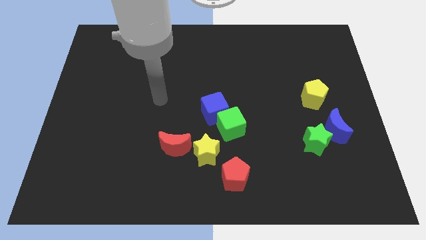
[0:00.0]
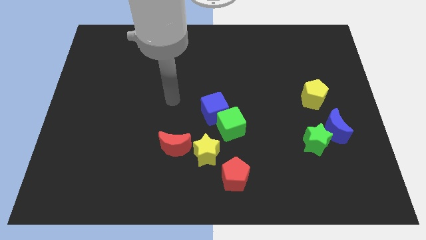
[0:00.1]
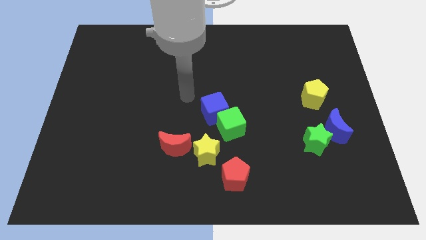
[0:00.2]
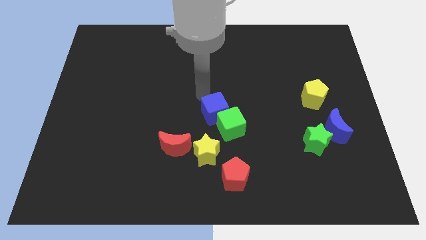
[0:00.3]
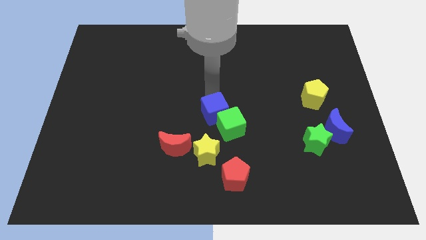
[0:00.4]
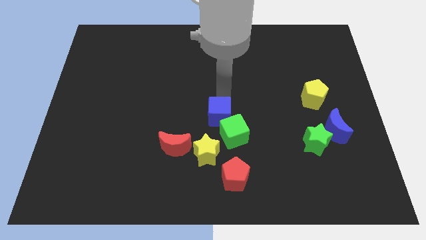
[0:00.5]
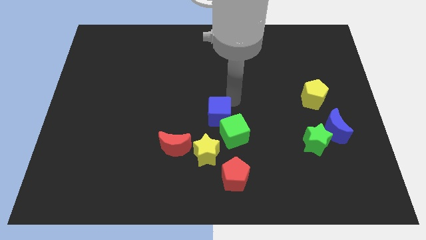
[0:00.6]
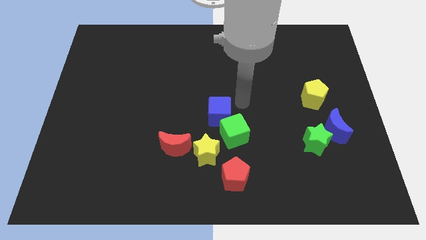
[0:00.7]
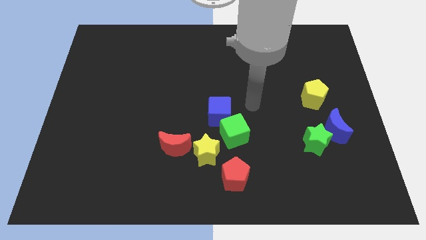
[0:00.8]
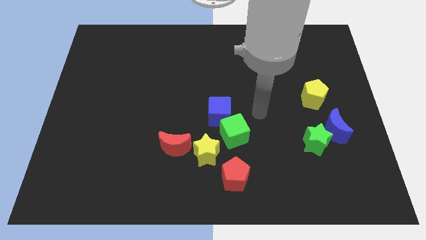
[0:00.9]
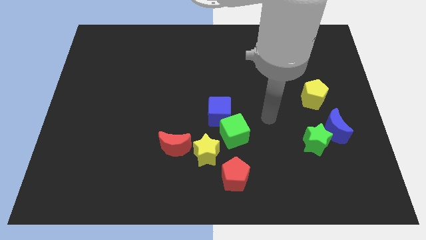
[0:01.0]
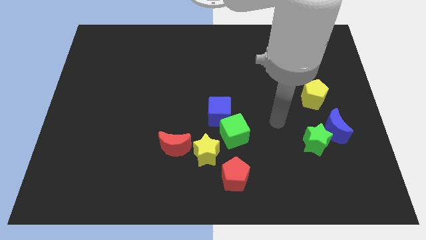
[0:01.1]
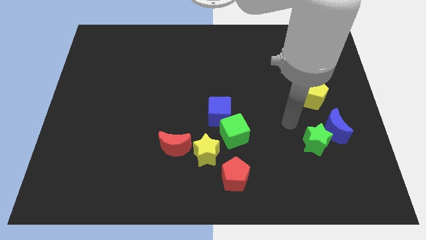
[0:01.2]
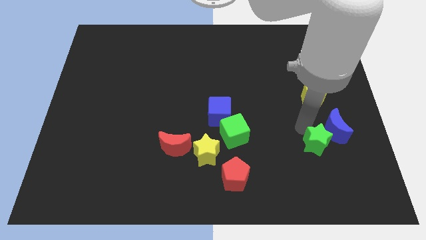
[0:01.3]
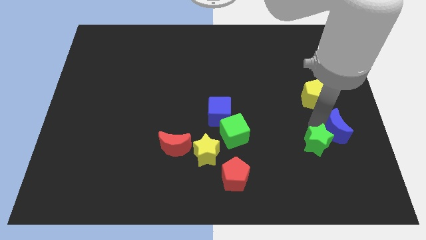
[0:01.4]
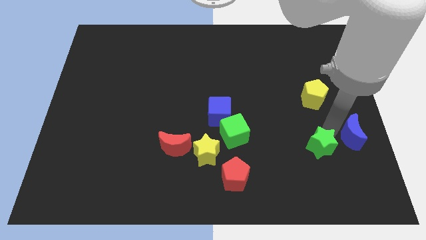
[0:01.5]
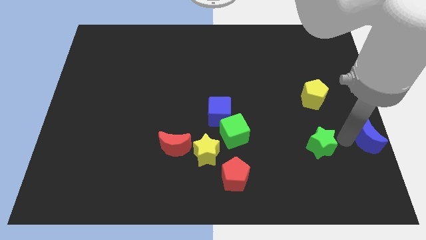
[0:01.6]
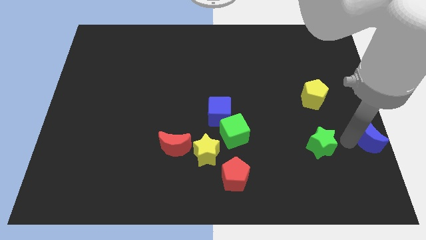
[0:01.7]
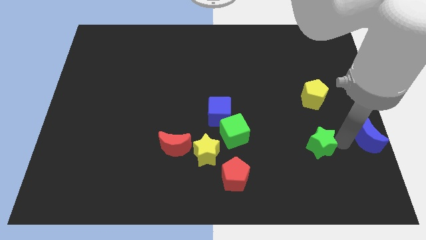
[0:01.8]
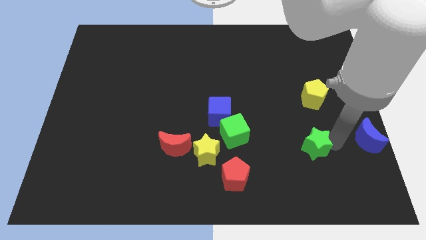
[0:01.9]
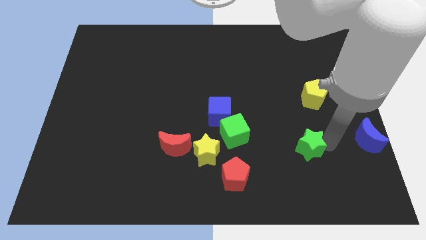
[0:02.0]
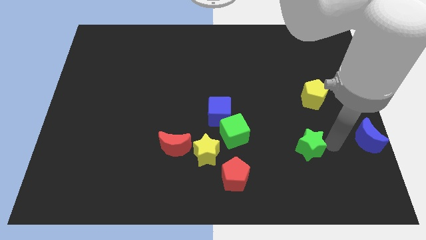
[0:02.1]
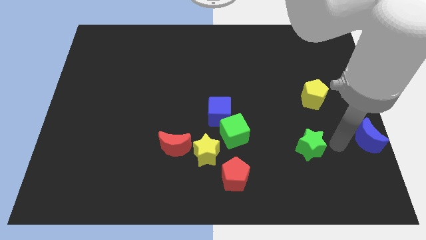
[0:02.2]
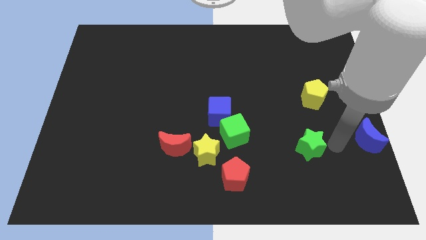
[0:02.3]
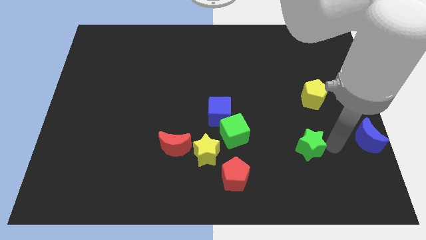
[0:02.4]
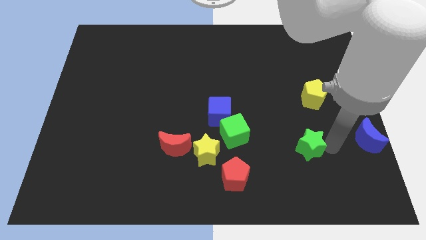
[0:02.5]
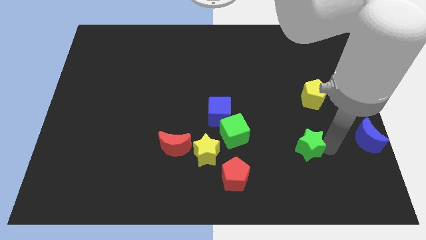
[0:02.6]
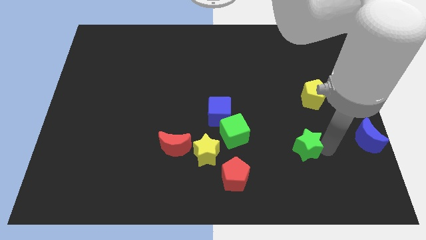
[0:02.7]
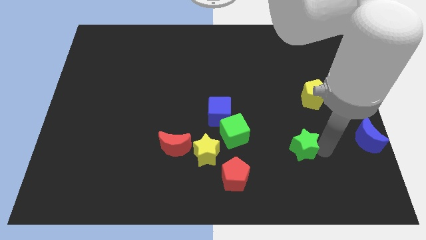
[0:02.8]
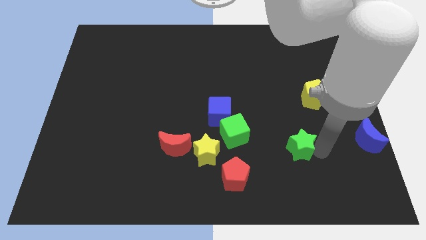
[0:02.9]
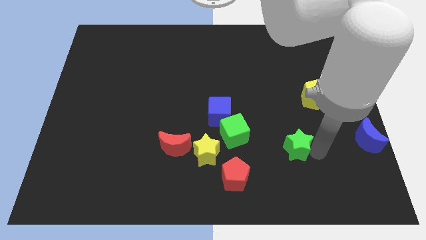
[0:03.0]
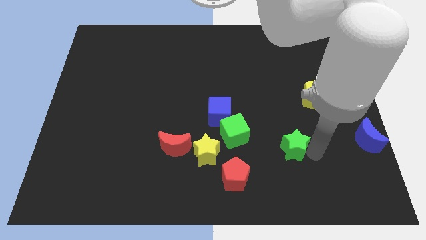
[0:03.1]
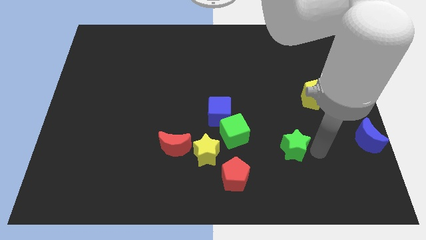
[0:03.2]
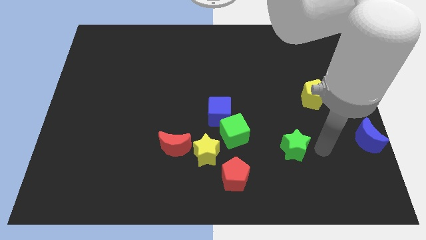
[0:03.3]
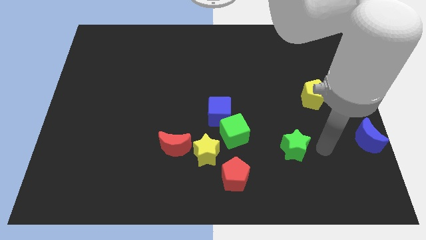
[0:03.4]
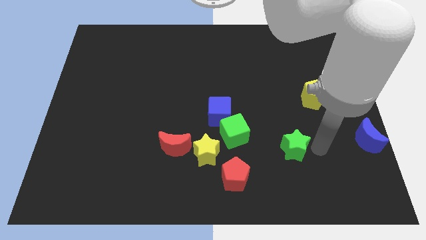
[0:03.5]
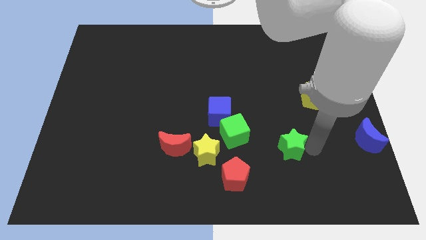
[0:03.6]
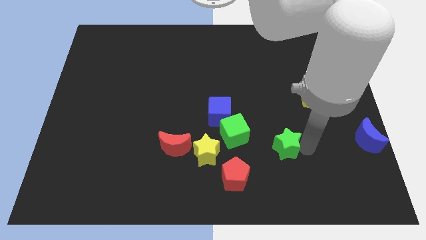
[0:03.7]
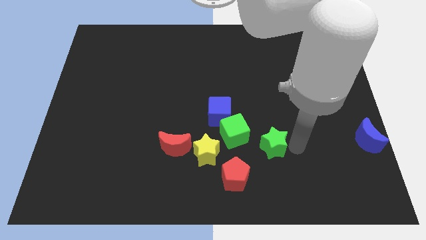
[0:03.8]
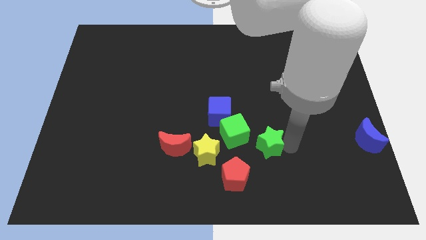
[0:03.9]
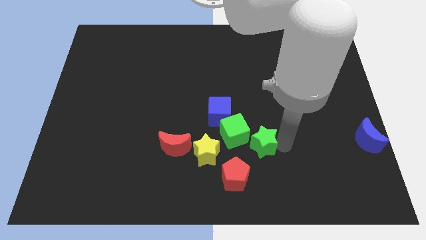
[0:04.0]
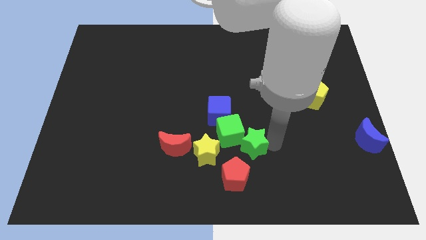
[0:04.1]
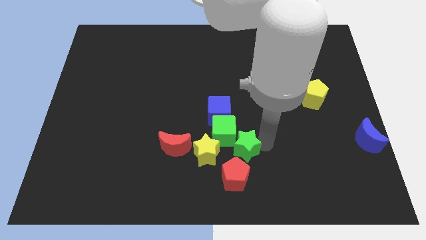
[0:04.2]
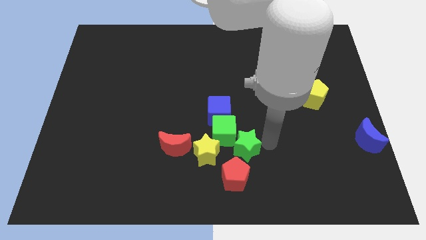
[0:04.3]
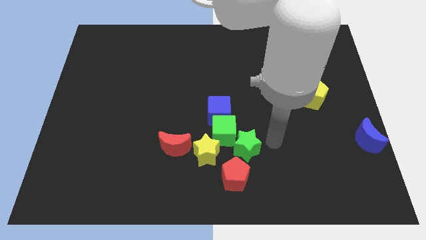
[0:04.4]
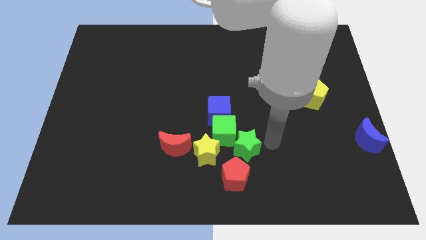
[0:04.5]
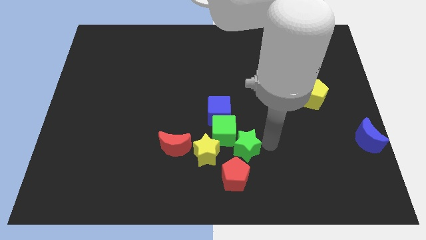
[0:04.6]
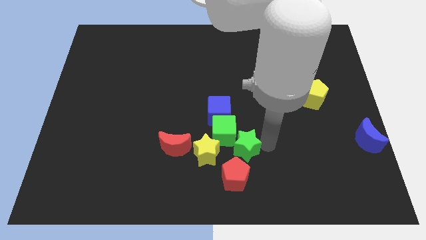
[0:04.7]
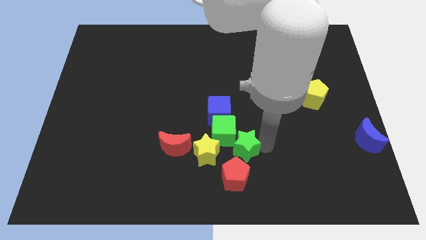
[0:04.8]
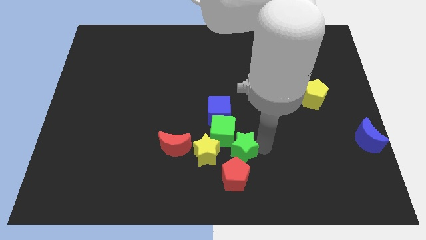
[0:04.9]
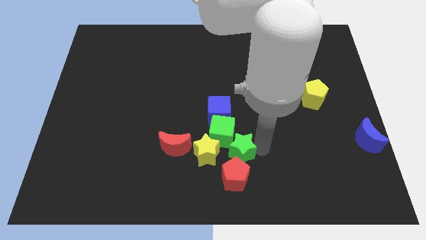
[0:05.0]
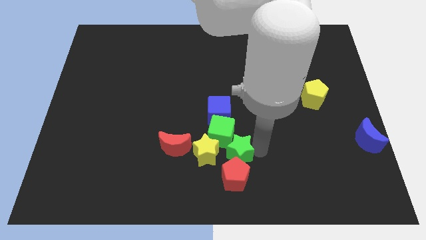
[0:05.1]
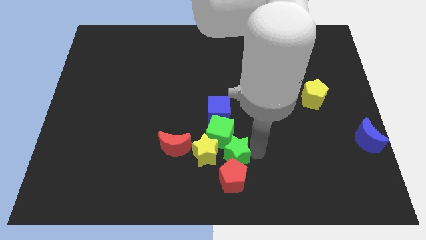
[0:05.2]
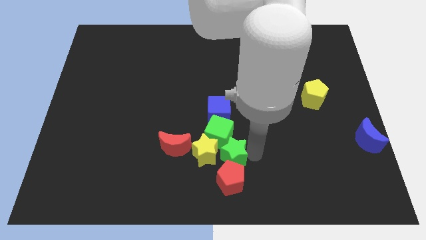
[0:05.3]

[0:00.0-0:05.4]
slide the green star close to the yellow star

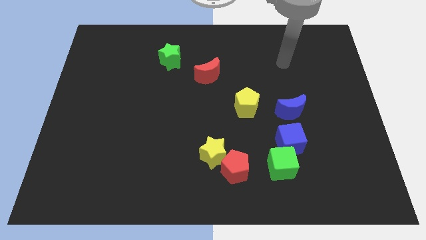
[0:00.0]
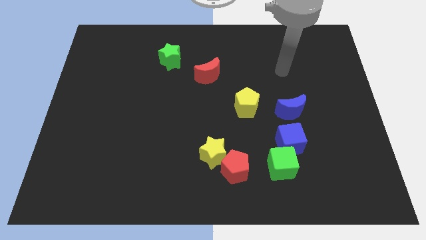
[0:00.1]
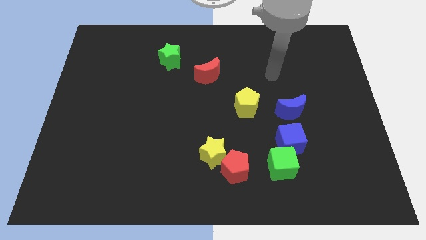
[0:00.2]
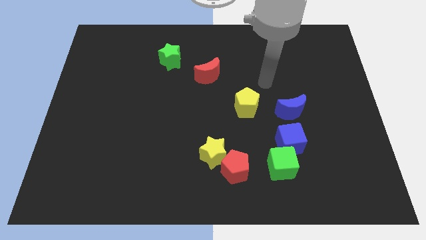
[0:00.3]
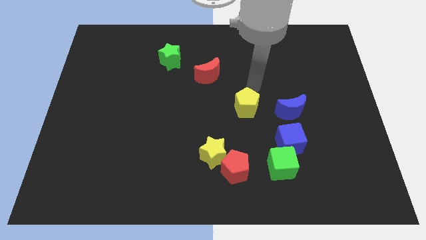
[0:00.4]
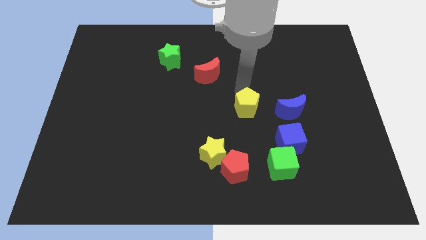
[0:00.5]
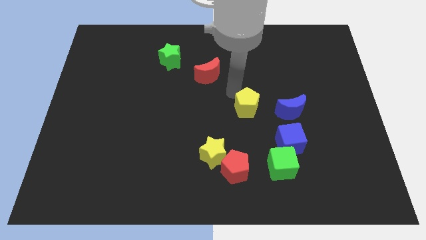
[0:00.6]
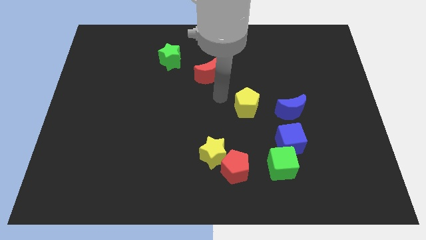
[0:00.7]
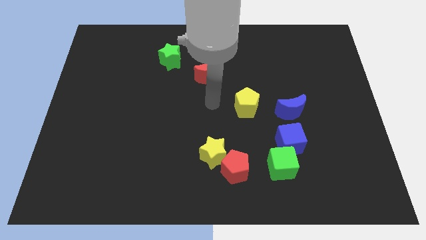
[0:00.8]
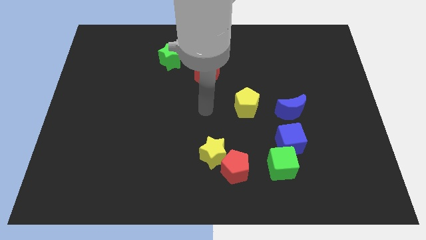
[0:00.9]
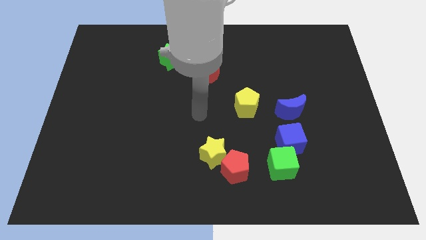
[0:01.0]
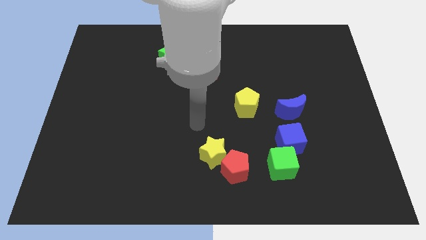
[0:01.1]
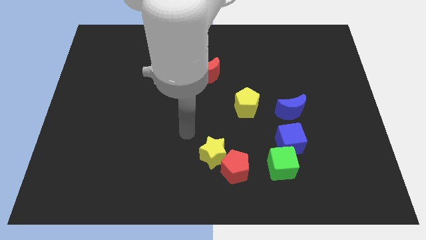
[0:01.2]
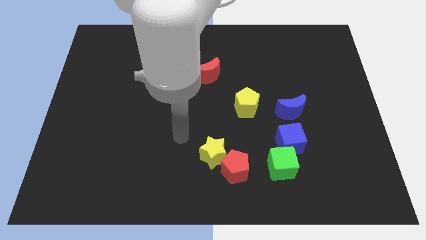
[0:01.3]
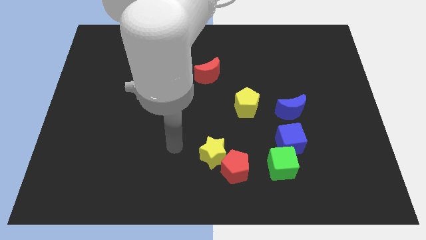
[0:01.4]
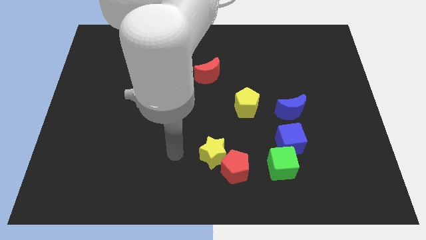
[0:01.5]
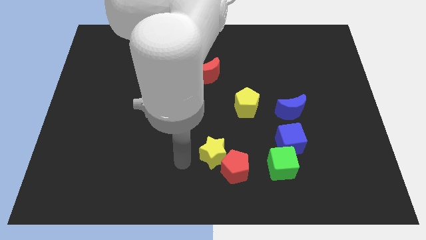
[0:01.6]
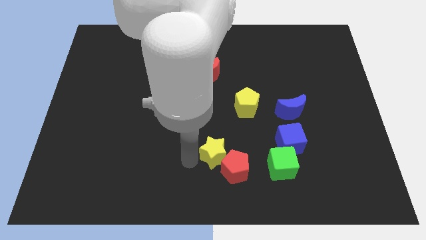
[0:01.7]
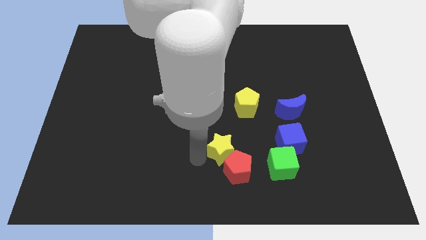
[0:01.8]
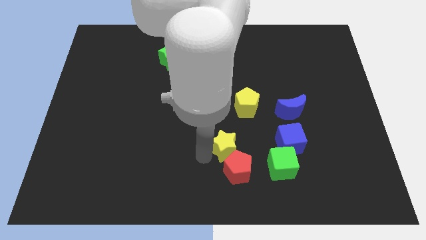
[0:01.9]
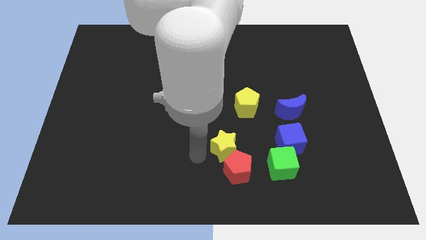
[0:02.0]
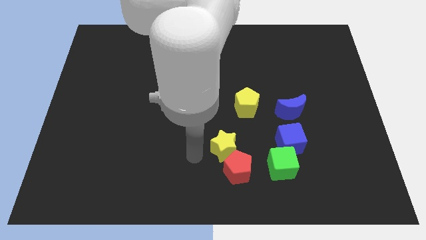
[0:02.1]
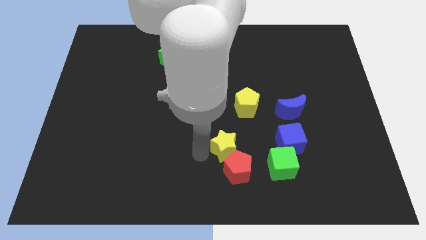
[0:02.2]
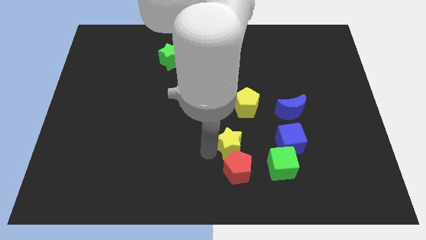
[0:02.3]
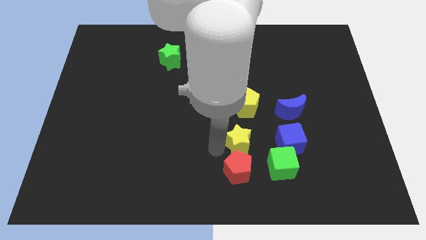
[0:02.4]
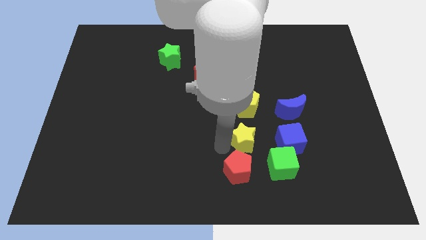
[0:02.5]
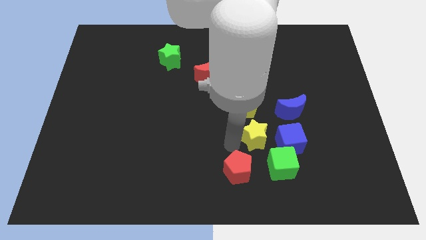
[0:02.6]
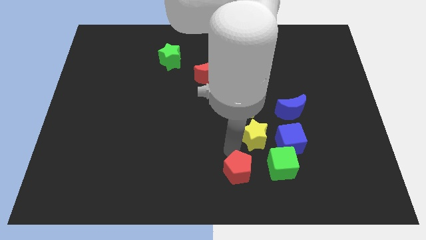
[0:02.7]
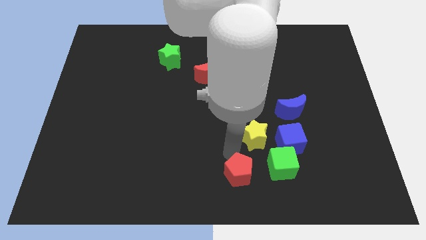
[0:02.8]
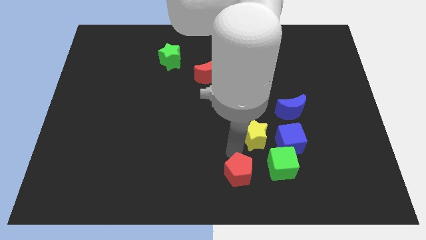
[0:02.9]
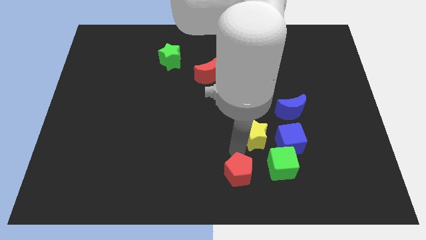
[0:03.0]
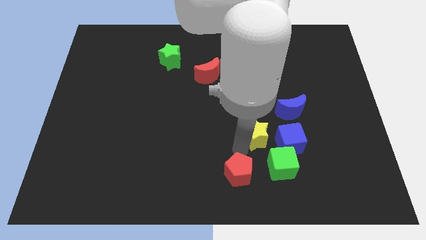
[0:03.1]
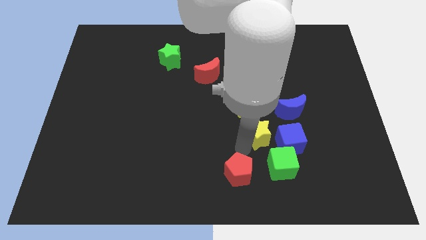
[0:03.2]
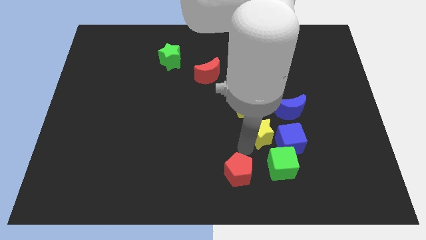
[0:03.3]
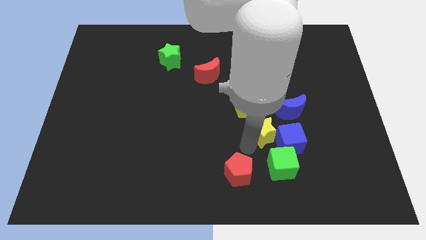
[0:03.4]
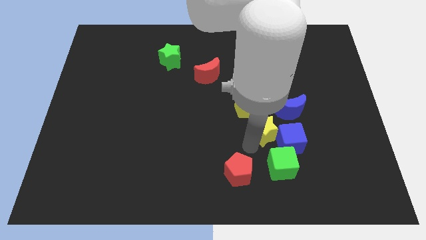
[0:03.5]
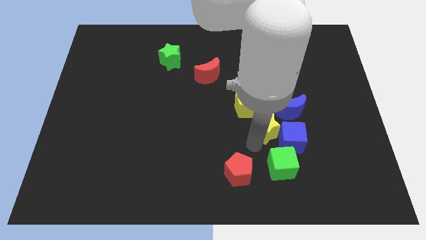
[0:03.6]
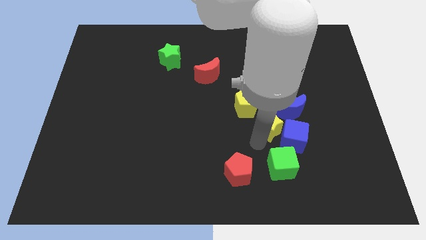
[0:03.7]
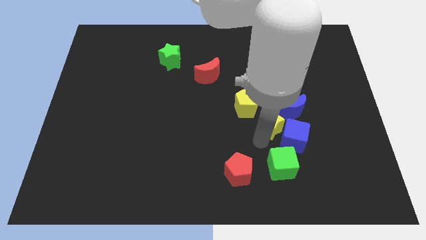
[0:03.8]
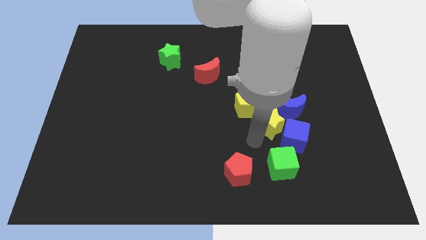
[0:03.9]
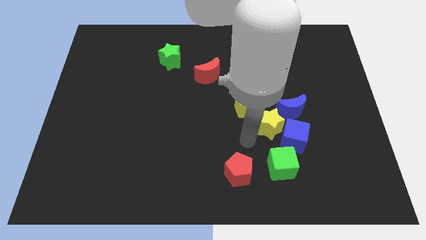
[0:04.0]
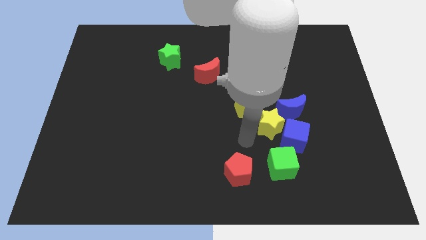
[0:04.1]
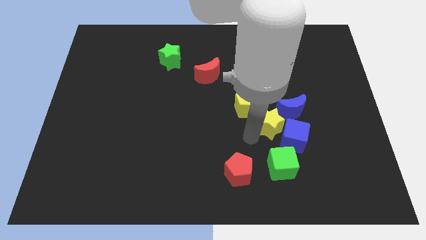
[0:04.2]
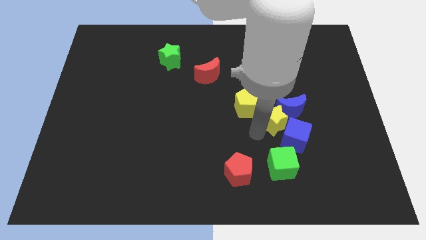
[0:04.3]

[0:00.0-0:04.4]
push the yellow star to the blue moon
